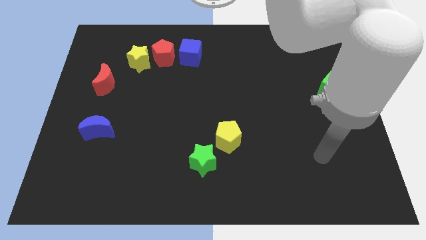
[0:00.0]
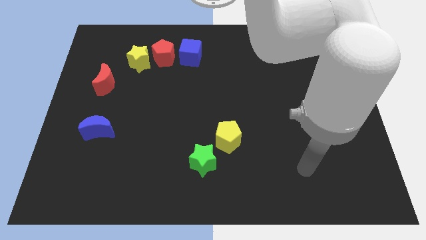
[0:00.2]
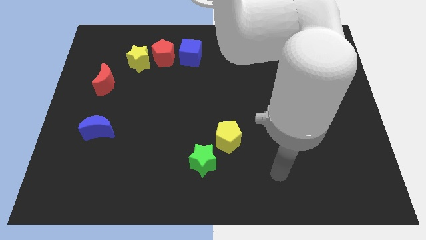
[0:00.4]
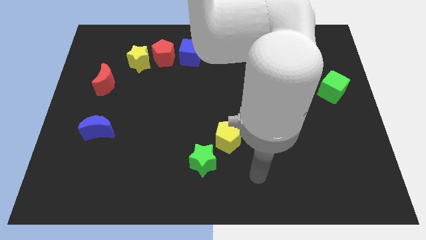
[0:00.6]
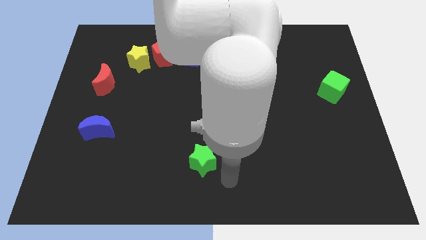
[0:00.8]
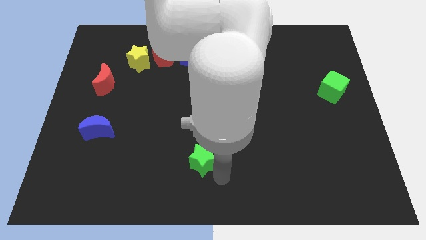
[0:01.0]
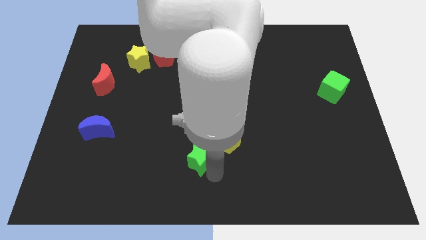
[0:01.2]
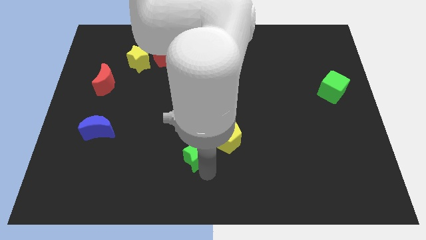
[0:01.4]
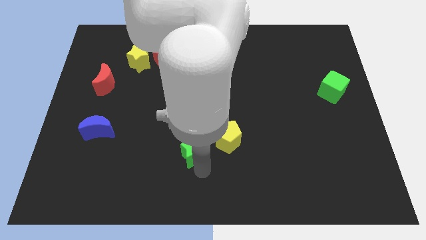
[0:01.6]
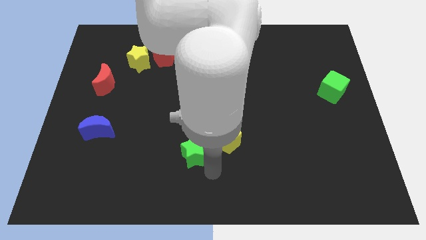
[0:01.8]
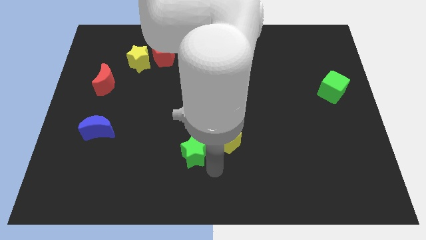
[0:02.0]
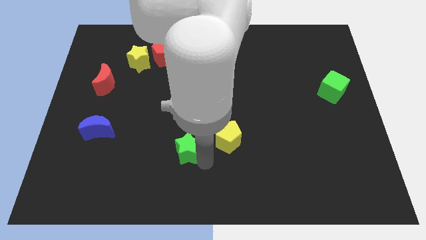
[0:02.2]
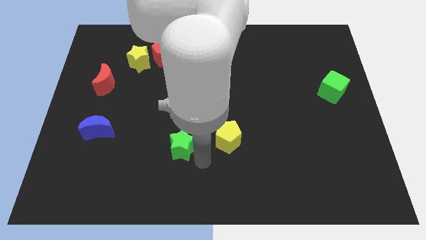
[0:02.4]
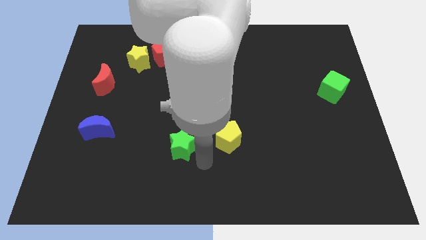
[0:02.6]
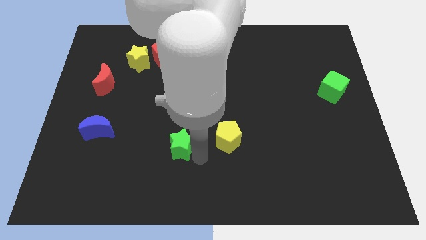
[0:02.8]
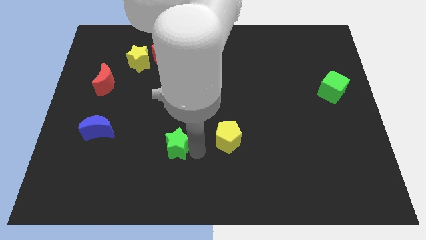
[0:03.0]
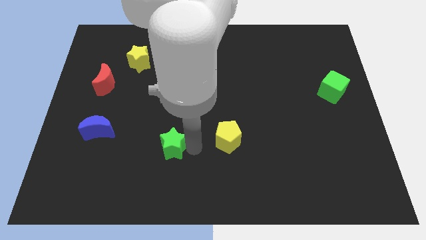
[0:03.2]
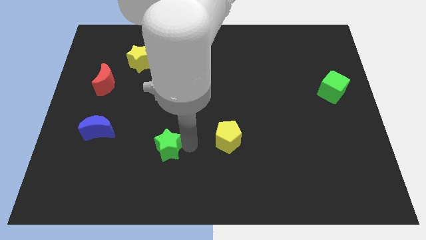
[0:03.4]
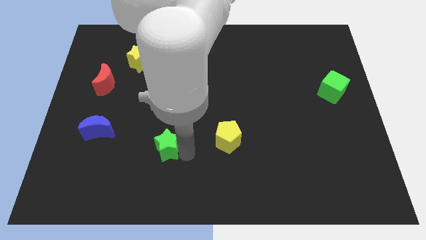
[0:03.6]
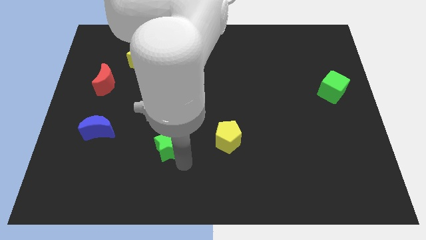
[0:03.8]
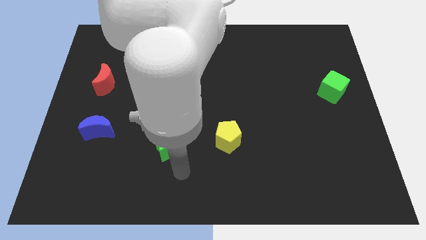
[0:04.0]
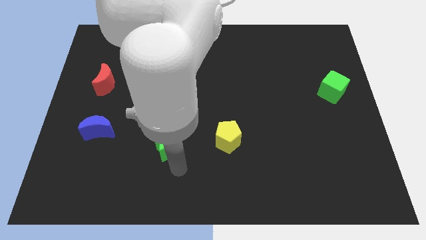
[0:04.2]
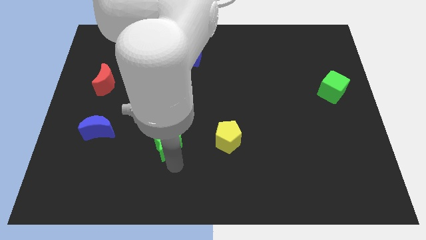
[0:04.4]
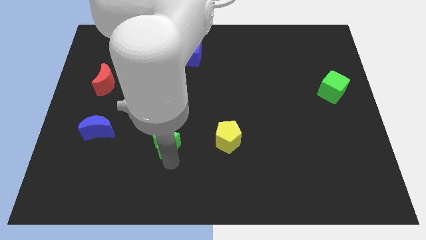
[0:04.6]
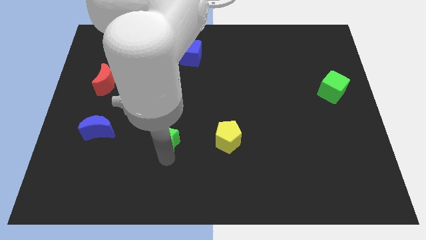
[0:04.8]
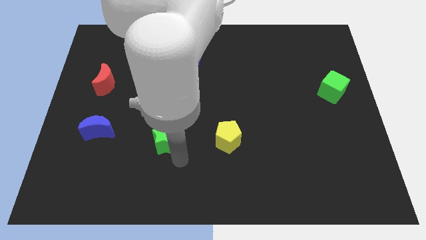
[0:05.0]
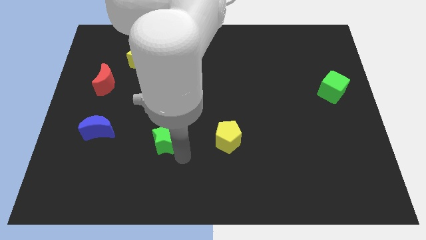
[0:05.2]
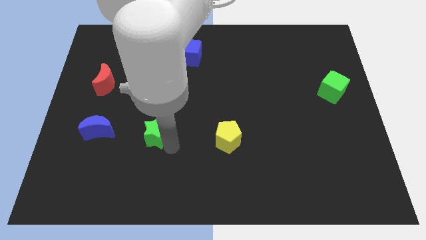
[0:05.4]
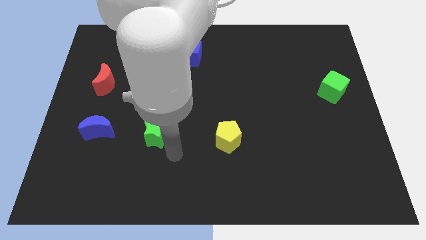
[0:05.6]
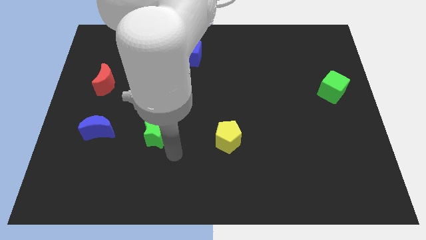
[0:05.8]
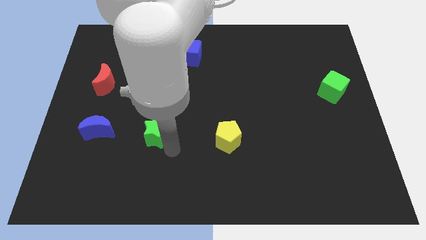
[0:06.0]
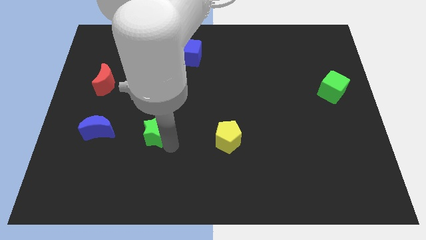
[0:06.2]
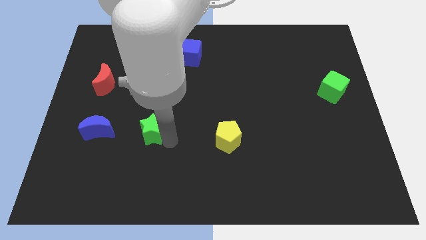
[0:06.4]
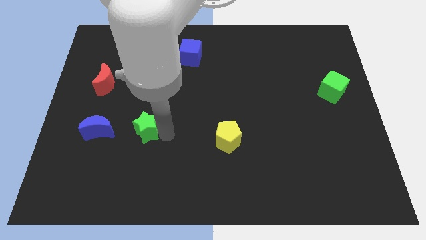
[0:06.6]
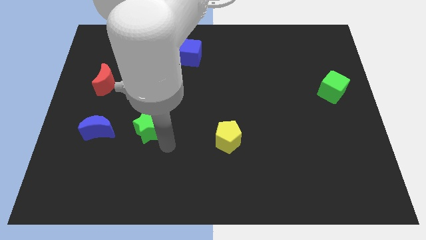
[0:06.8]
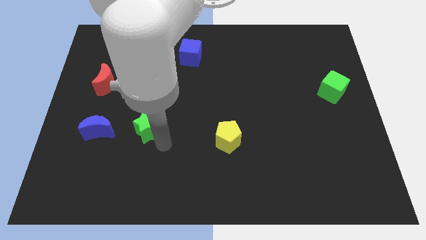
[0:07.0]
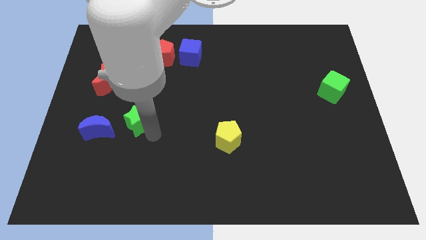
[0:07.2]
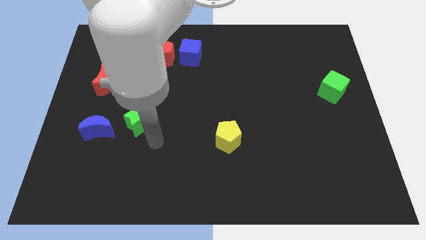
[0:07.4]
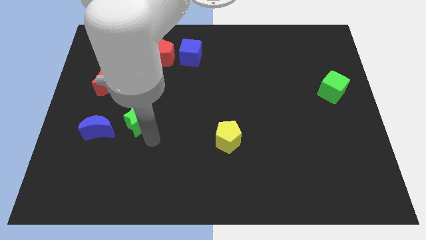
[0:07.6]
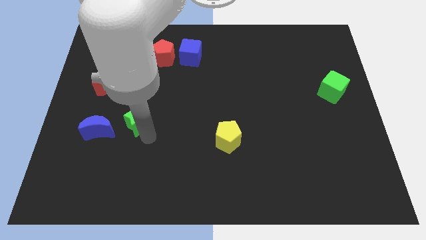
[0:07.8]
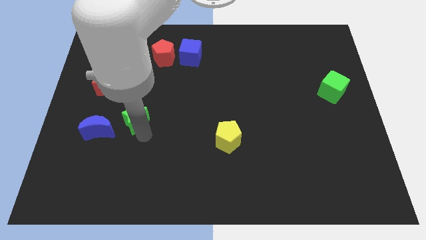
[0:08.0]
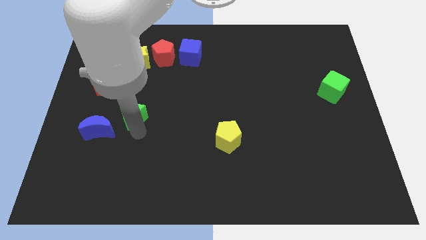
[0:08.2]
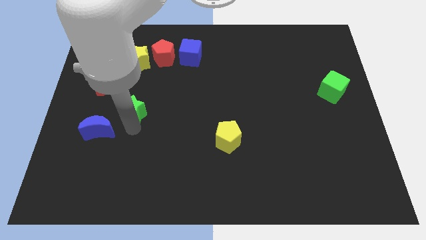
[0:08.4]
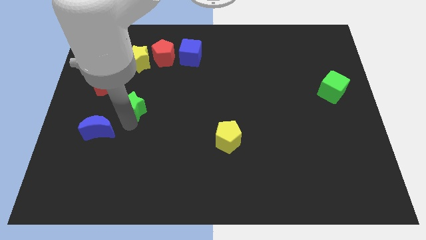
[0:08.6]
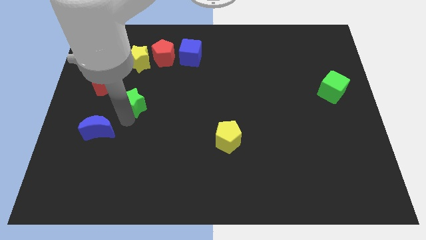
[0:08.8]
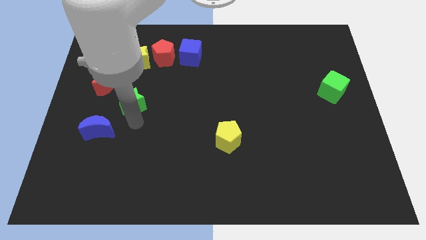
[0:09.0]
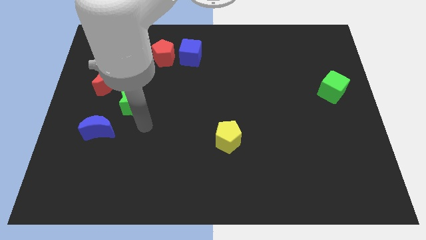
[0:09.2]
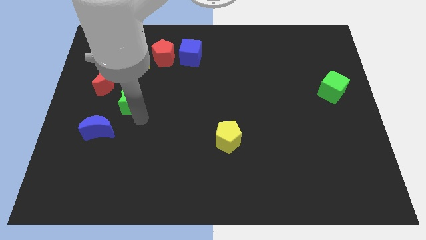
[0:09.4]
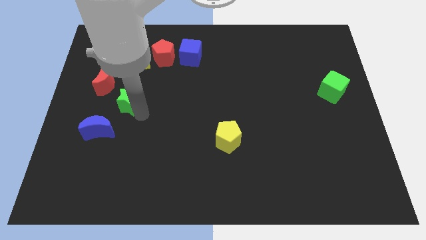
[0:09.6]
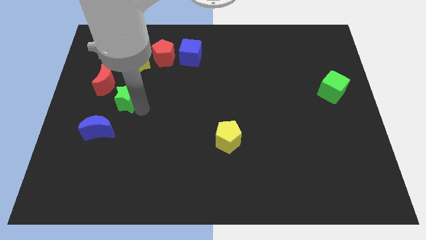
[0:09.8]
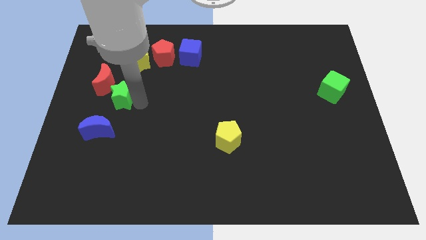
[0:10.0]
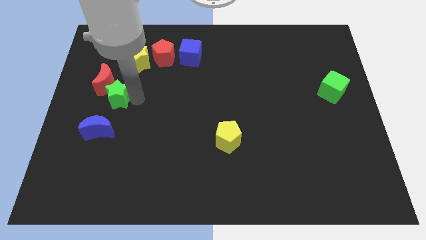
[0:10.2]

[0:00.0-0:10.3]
put the green star next to the red moon

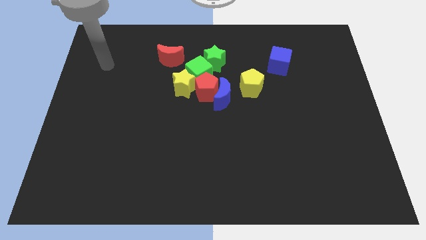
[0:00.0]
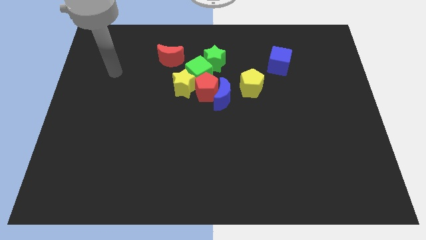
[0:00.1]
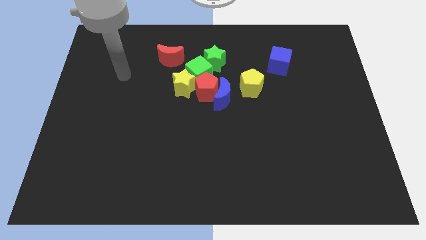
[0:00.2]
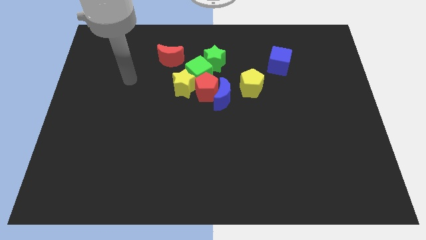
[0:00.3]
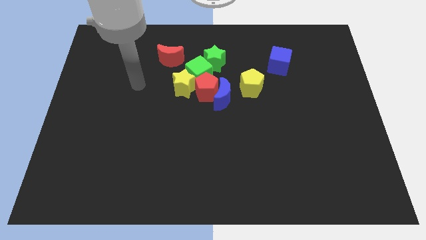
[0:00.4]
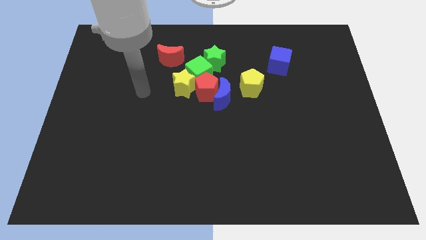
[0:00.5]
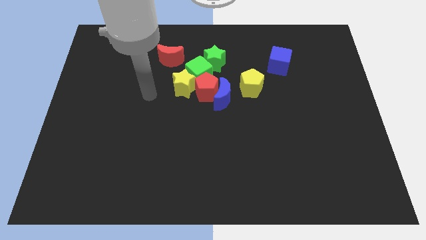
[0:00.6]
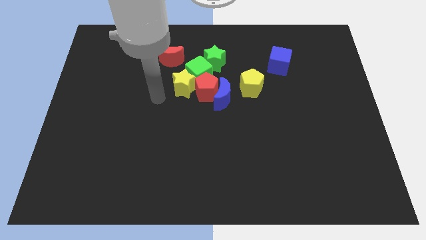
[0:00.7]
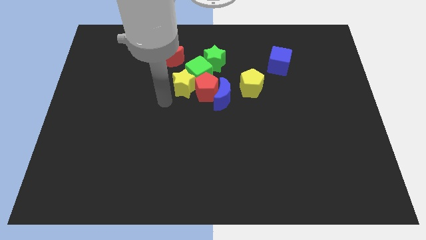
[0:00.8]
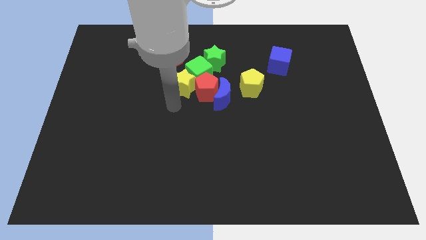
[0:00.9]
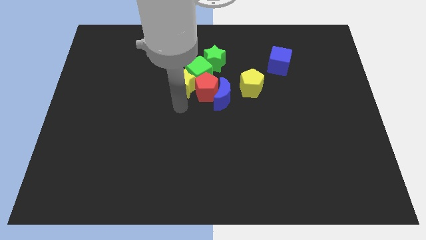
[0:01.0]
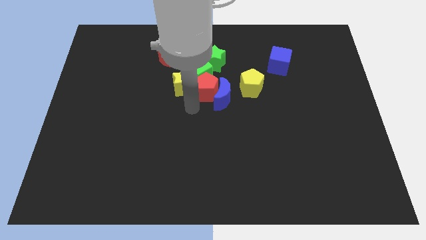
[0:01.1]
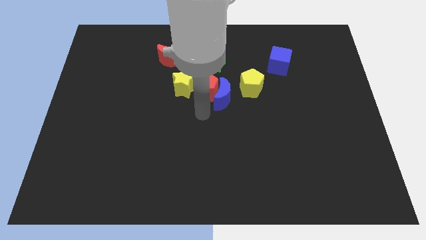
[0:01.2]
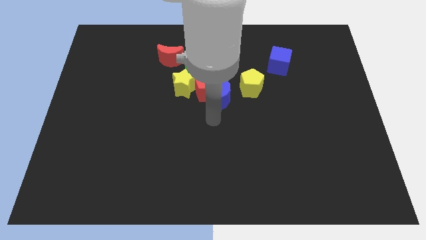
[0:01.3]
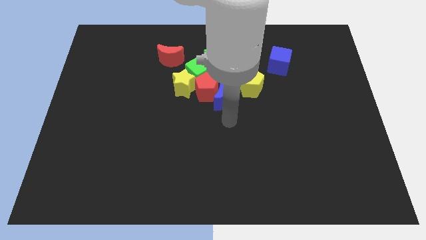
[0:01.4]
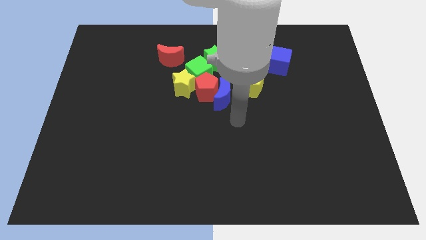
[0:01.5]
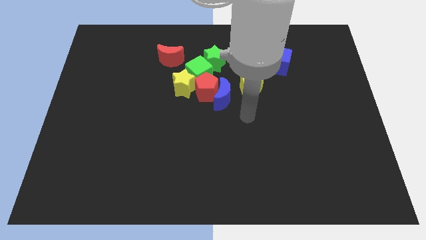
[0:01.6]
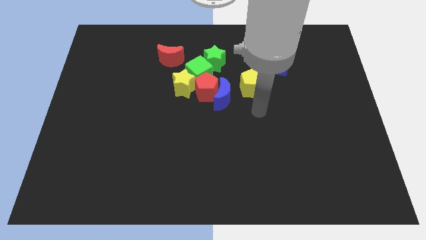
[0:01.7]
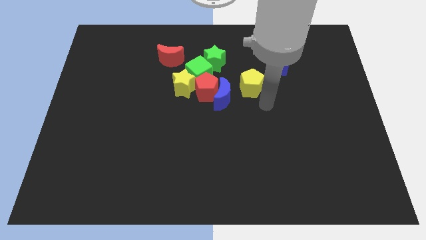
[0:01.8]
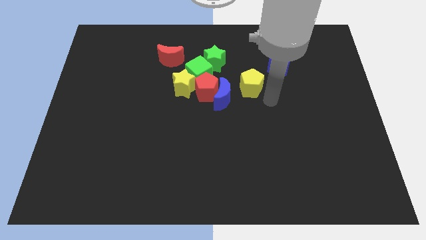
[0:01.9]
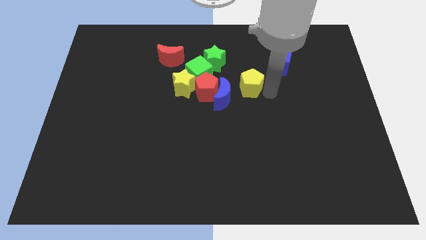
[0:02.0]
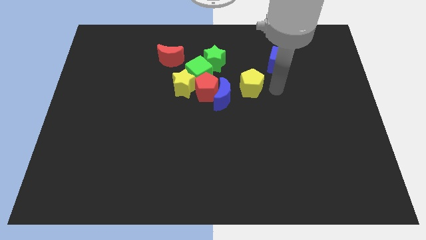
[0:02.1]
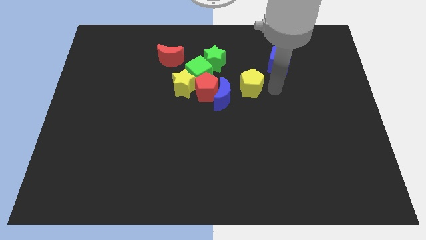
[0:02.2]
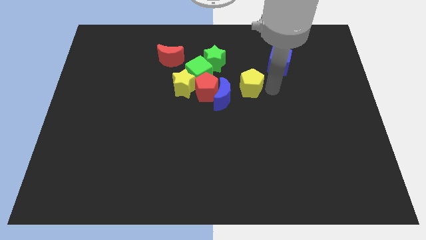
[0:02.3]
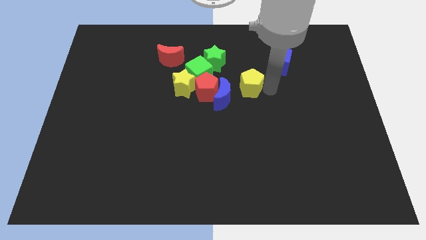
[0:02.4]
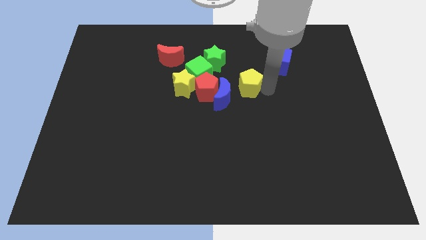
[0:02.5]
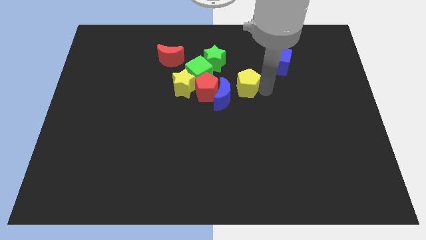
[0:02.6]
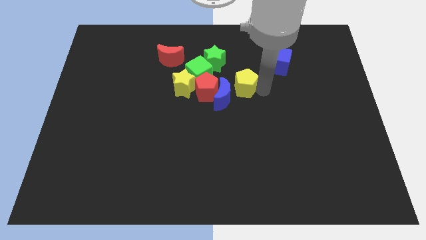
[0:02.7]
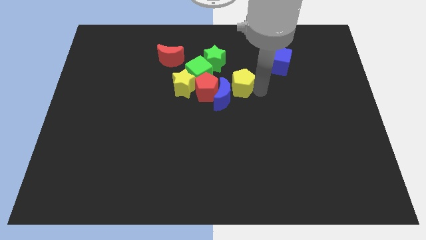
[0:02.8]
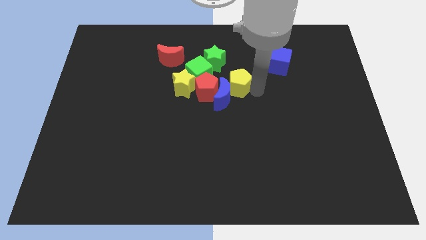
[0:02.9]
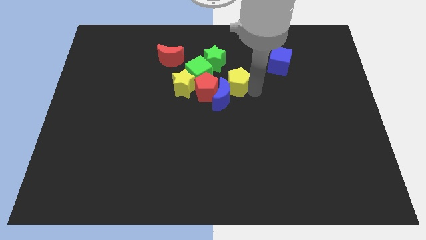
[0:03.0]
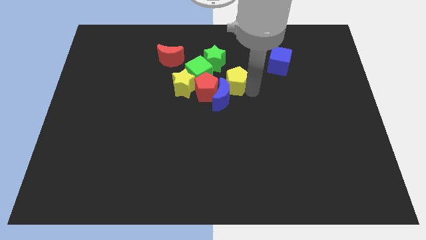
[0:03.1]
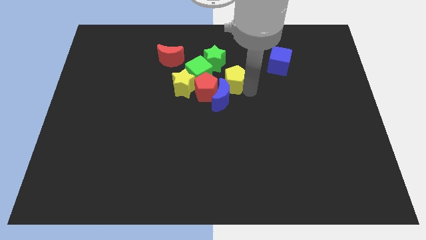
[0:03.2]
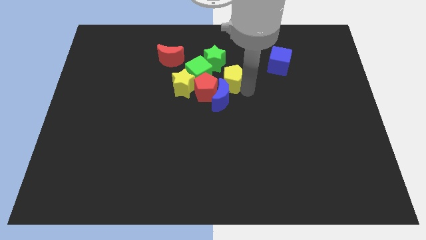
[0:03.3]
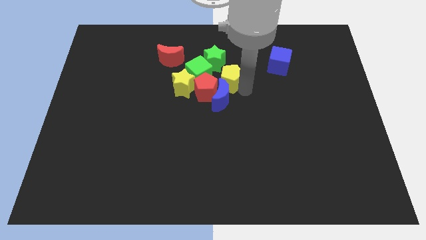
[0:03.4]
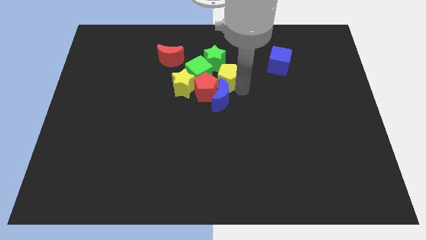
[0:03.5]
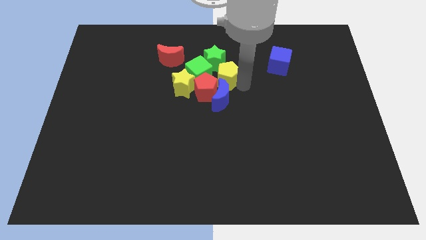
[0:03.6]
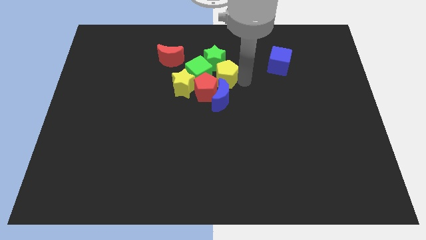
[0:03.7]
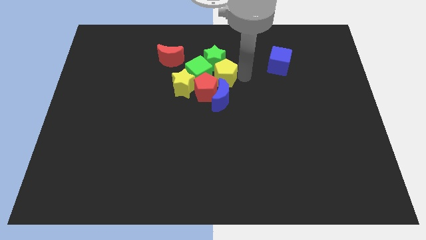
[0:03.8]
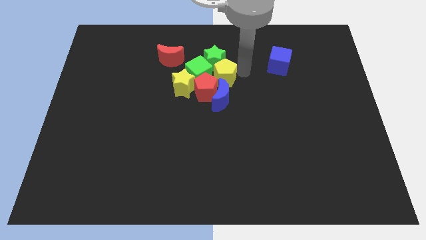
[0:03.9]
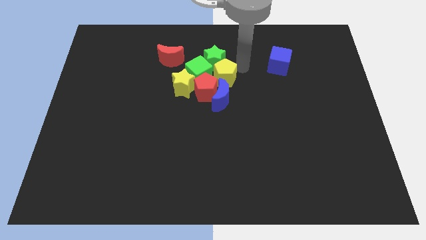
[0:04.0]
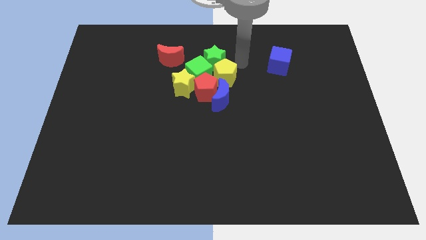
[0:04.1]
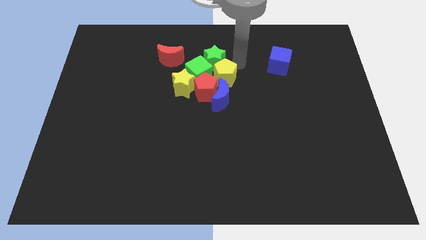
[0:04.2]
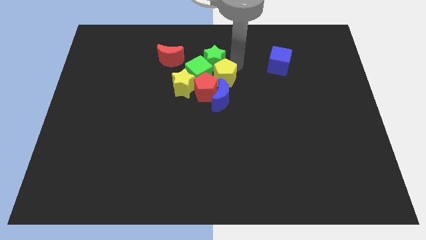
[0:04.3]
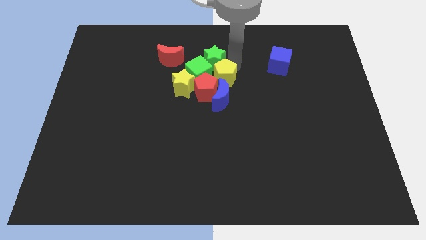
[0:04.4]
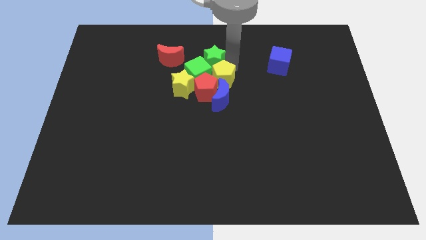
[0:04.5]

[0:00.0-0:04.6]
push the yellow pentagon to the red pentagon
